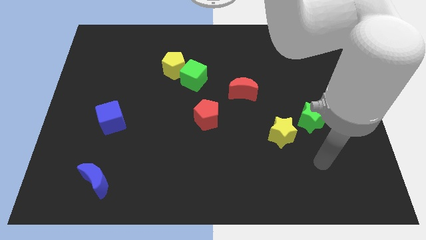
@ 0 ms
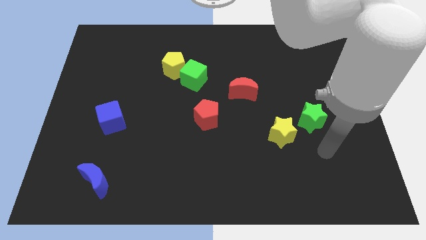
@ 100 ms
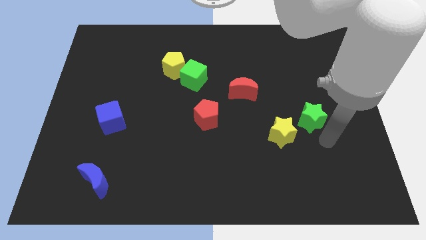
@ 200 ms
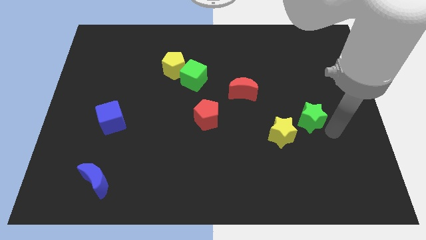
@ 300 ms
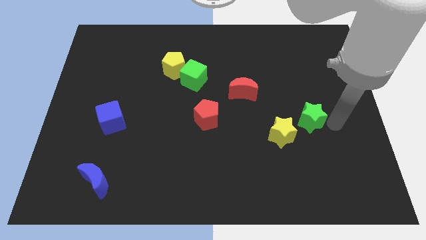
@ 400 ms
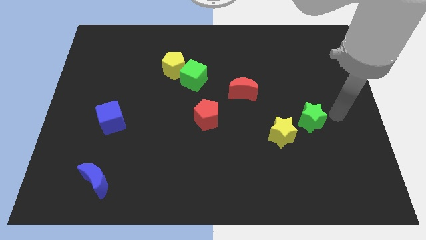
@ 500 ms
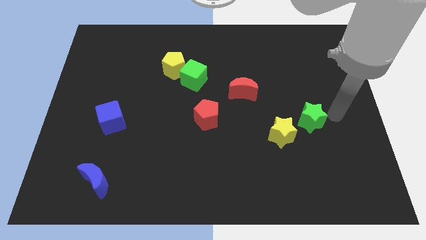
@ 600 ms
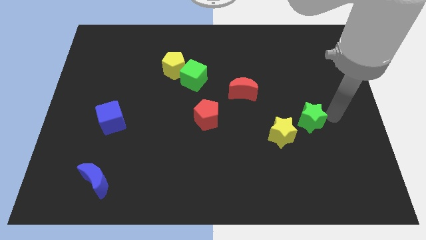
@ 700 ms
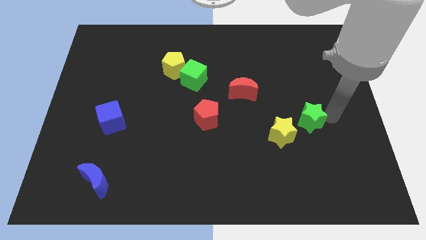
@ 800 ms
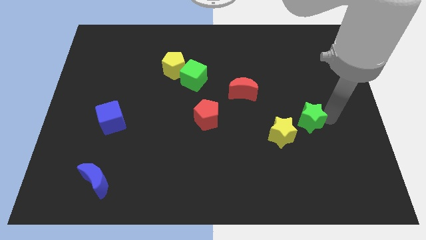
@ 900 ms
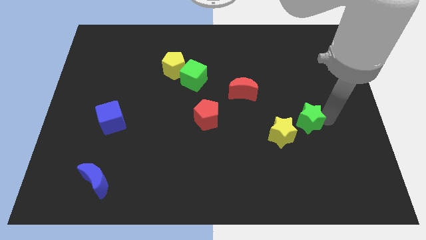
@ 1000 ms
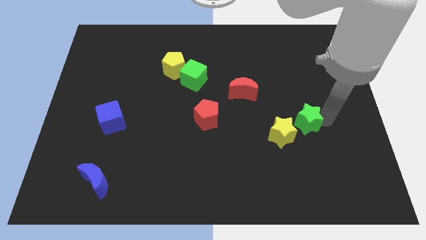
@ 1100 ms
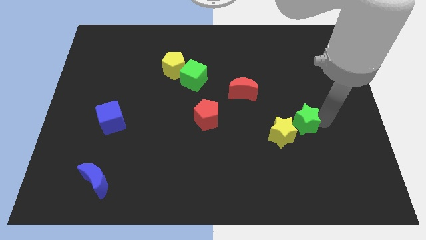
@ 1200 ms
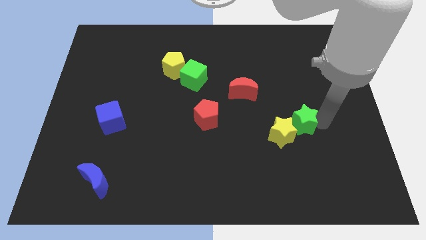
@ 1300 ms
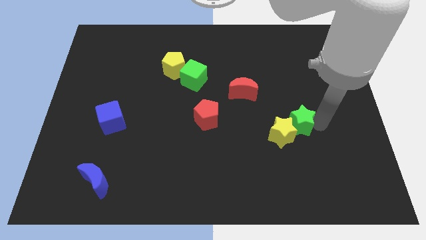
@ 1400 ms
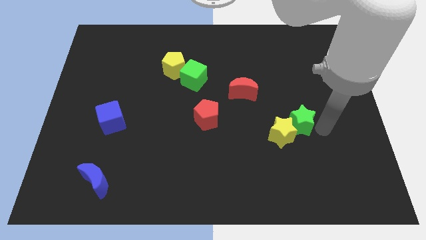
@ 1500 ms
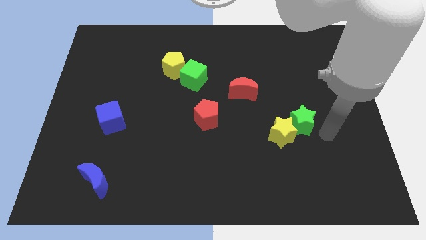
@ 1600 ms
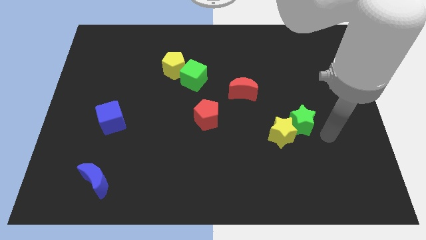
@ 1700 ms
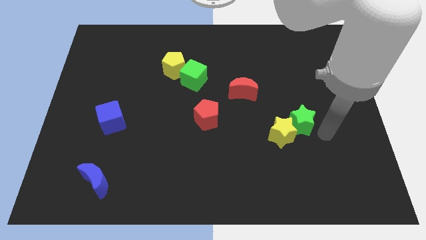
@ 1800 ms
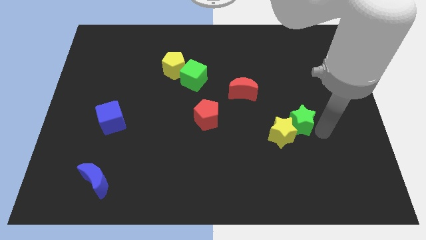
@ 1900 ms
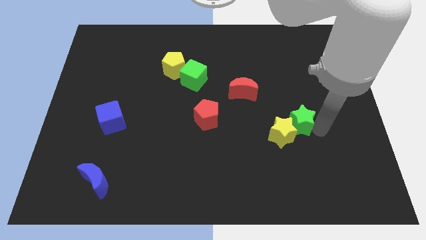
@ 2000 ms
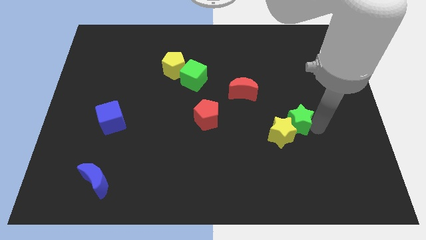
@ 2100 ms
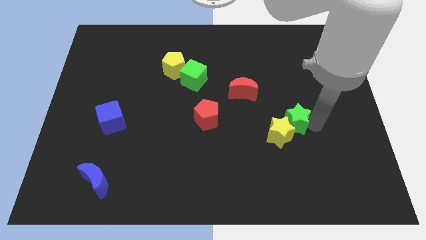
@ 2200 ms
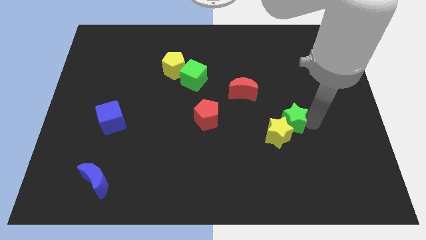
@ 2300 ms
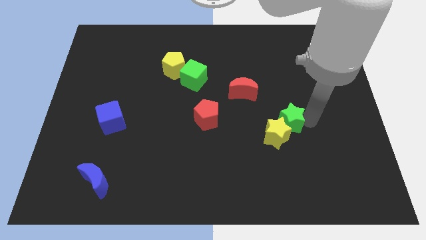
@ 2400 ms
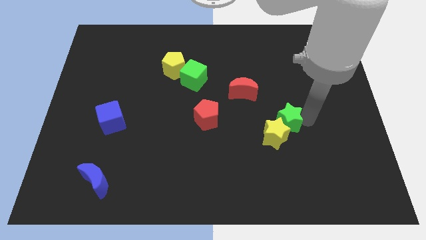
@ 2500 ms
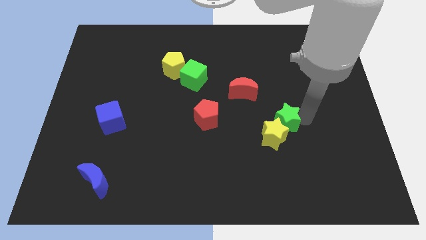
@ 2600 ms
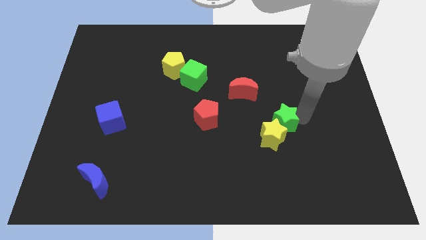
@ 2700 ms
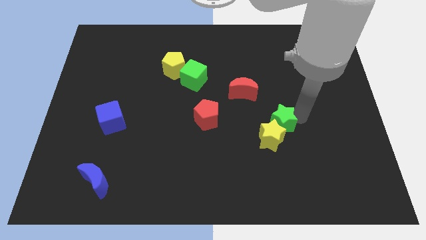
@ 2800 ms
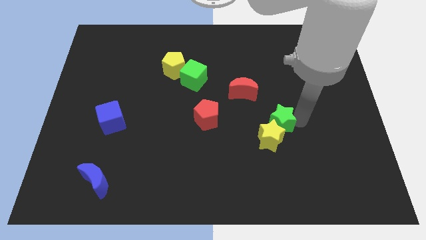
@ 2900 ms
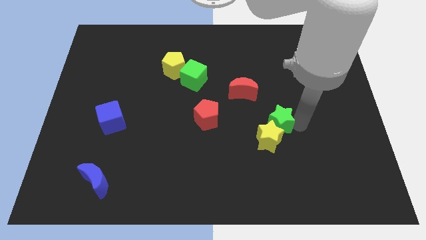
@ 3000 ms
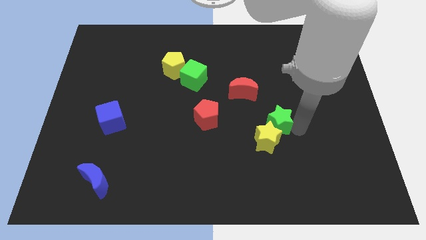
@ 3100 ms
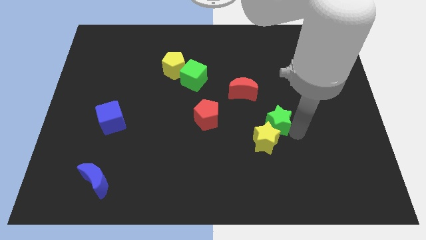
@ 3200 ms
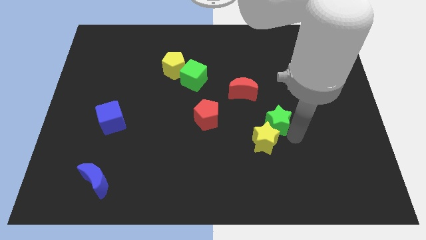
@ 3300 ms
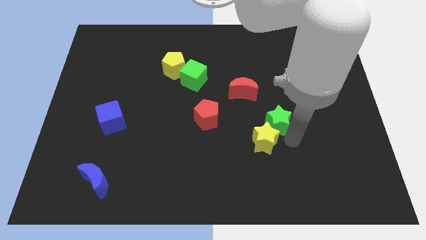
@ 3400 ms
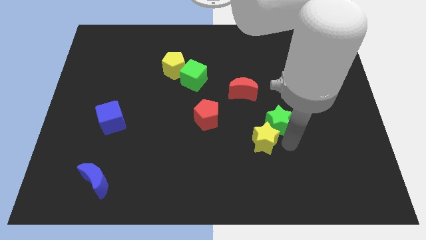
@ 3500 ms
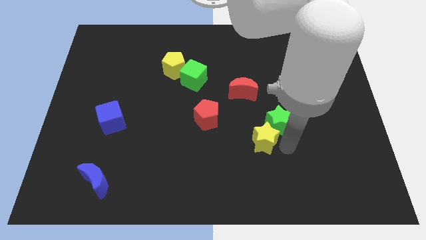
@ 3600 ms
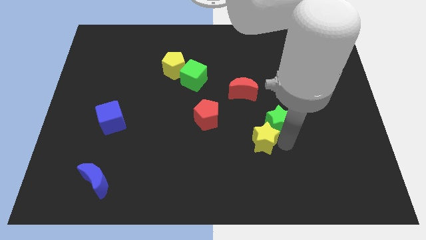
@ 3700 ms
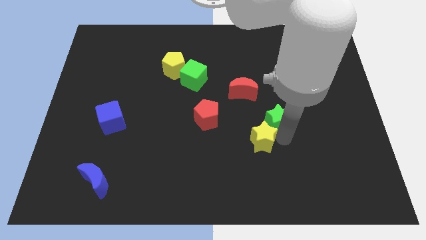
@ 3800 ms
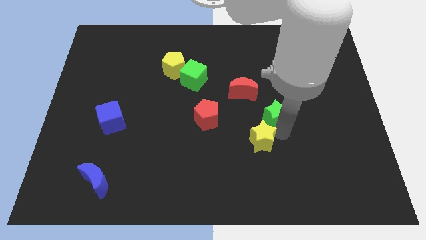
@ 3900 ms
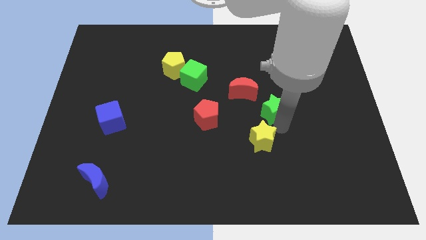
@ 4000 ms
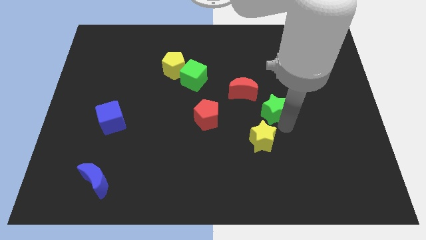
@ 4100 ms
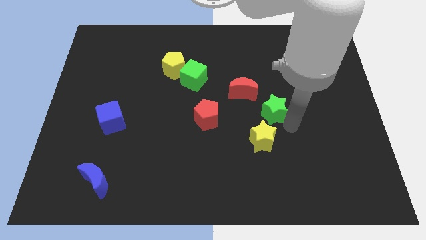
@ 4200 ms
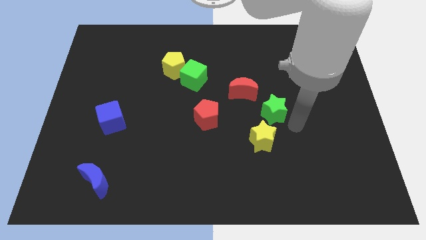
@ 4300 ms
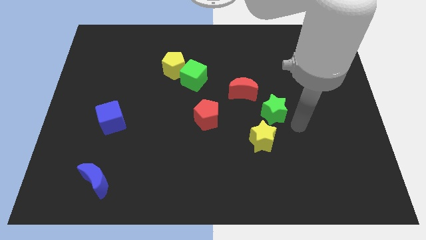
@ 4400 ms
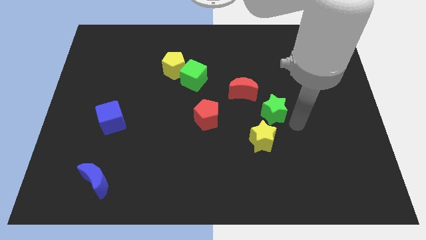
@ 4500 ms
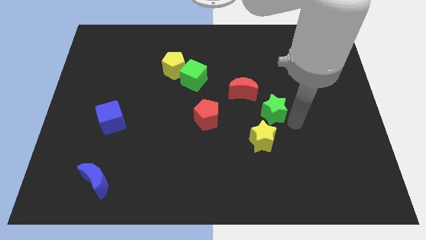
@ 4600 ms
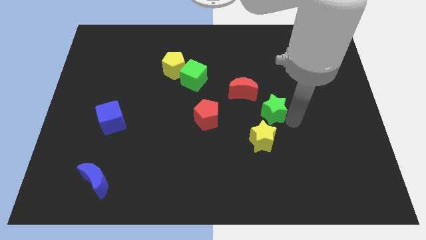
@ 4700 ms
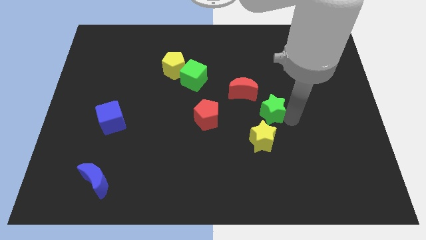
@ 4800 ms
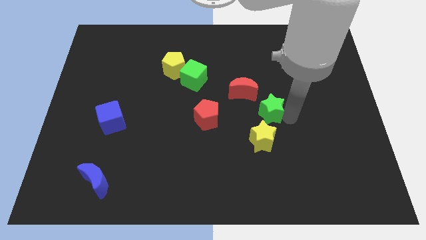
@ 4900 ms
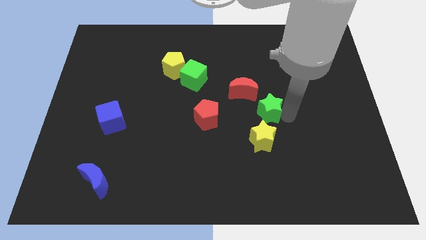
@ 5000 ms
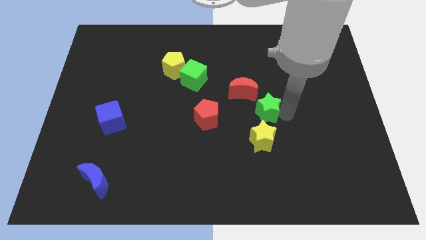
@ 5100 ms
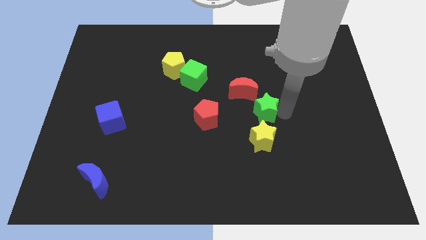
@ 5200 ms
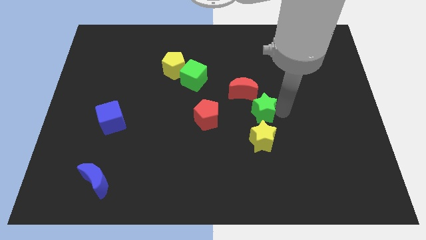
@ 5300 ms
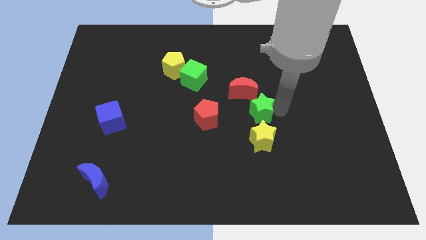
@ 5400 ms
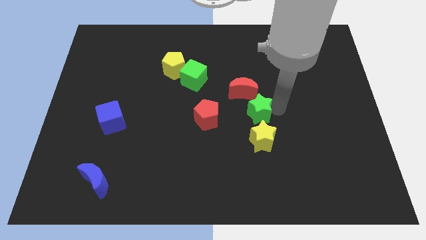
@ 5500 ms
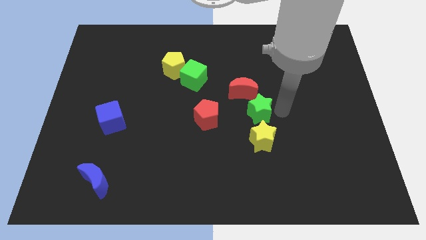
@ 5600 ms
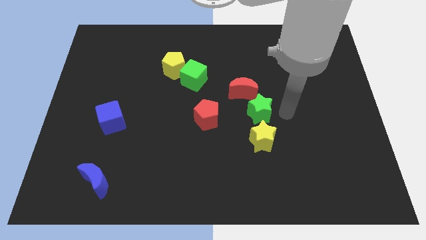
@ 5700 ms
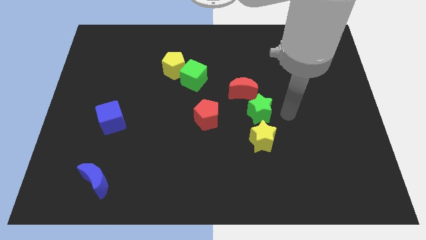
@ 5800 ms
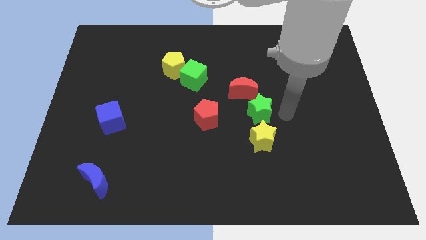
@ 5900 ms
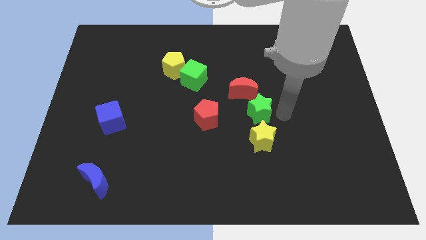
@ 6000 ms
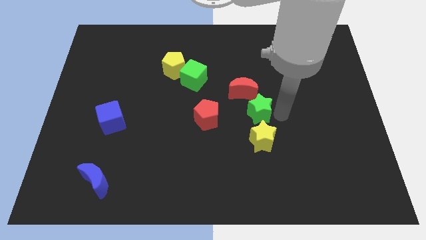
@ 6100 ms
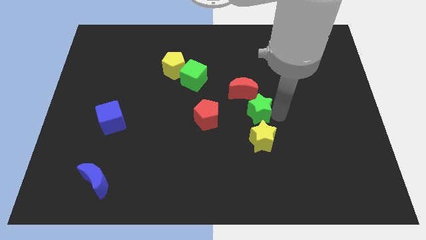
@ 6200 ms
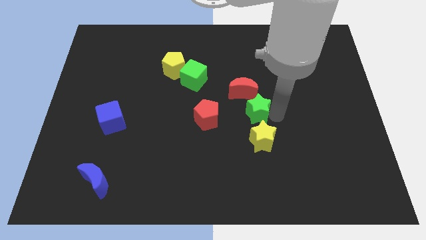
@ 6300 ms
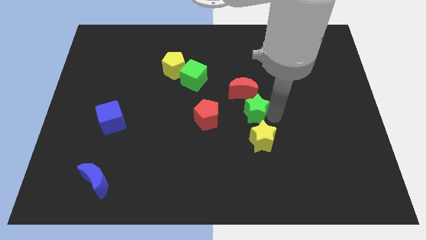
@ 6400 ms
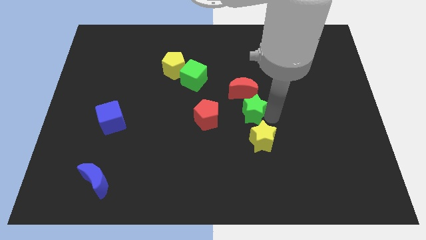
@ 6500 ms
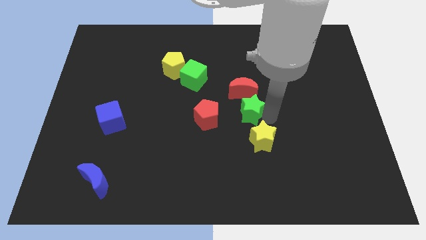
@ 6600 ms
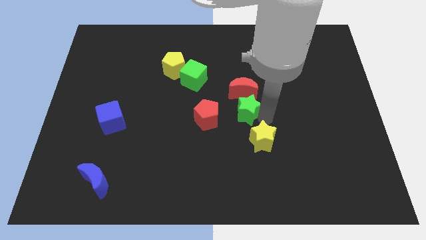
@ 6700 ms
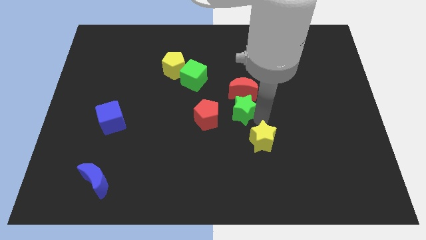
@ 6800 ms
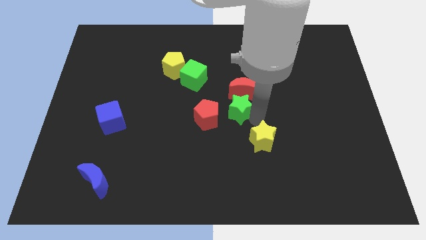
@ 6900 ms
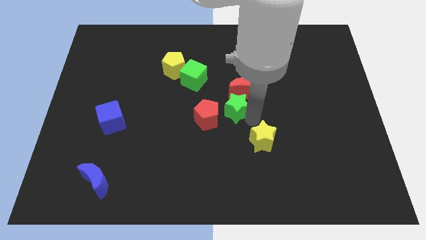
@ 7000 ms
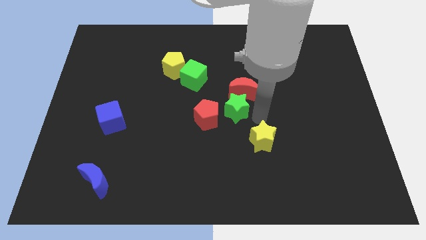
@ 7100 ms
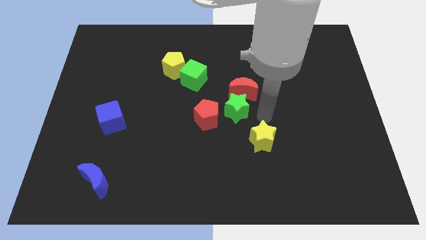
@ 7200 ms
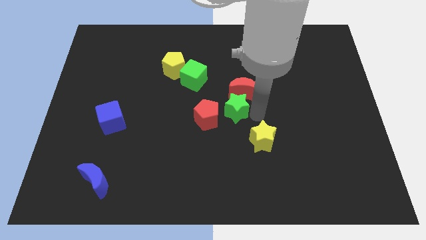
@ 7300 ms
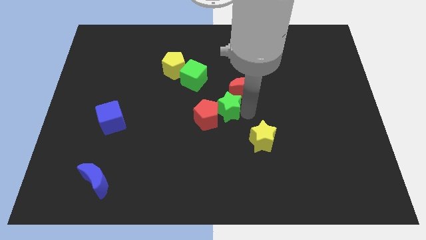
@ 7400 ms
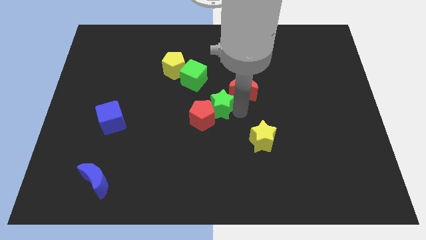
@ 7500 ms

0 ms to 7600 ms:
slide the green star to the left

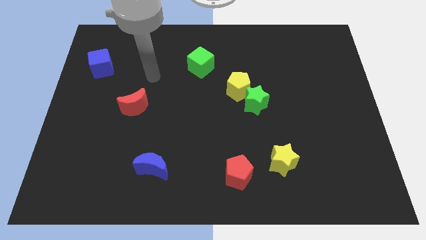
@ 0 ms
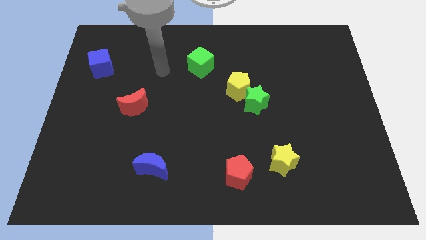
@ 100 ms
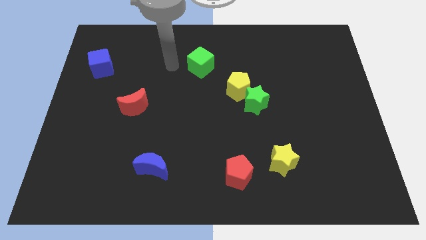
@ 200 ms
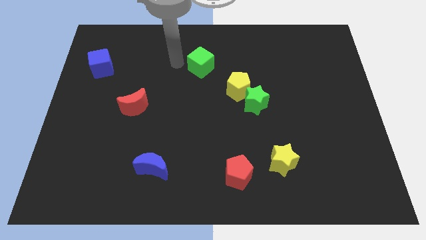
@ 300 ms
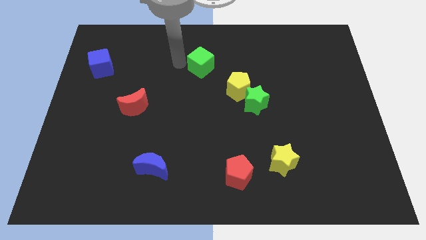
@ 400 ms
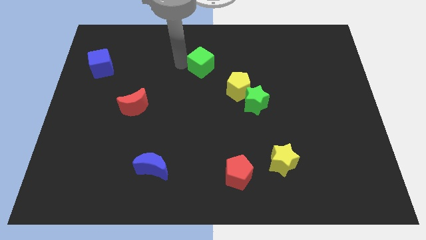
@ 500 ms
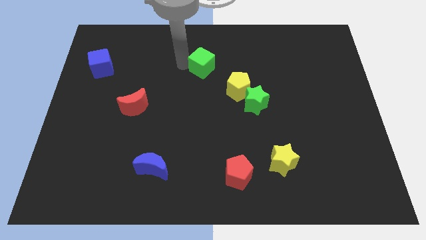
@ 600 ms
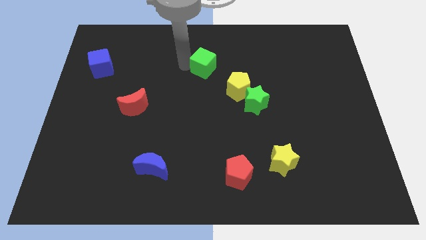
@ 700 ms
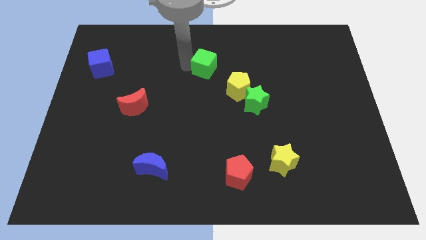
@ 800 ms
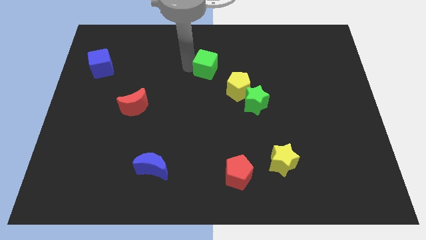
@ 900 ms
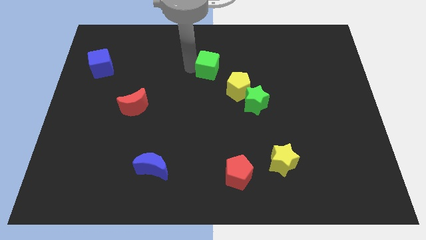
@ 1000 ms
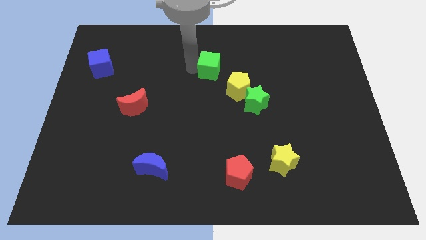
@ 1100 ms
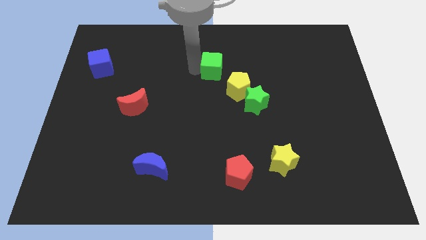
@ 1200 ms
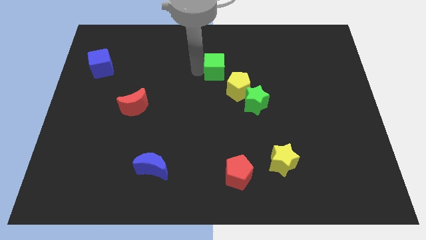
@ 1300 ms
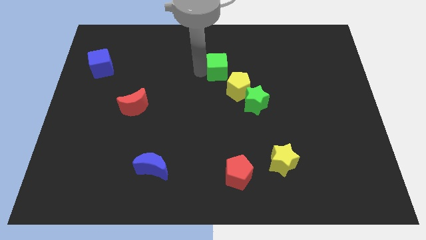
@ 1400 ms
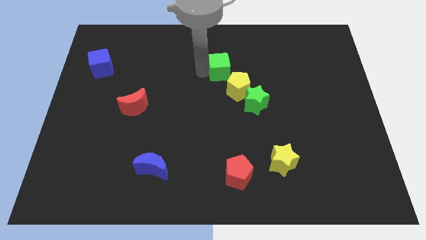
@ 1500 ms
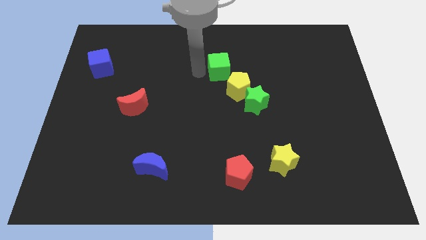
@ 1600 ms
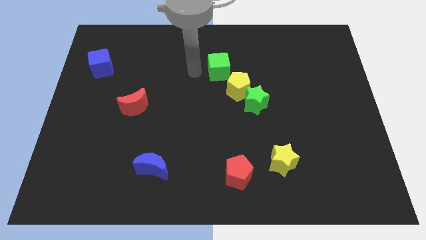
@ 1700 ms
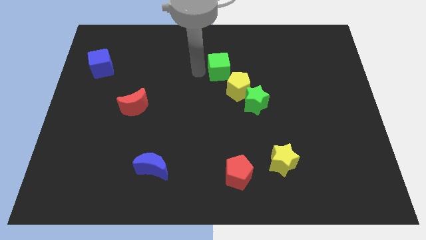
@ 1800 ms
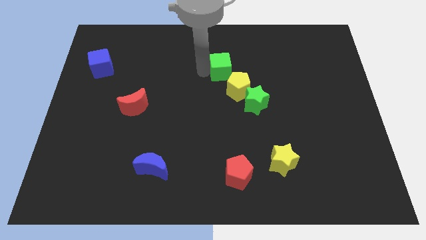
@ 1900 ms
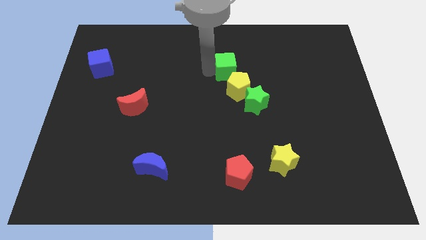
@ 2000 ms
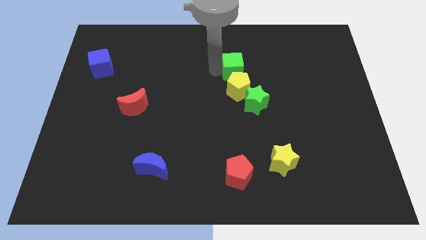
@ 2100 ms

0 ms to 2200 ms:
move the green cube a little right
